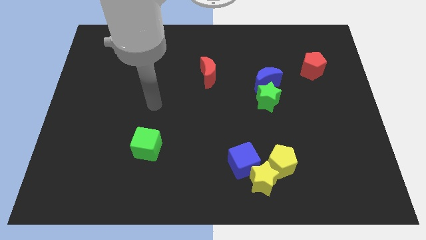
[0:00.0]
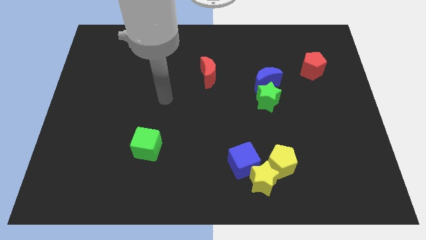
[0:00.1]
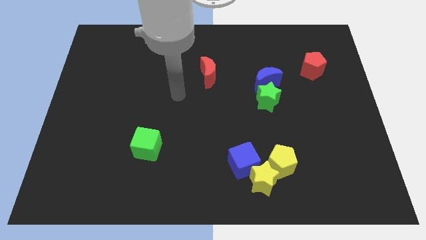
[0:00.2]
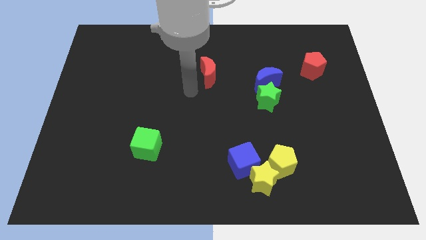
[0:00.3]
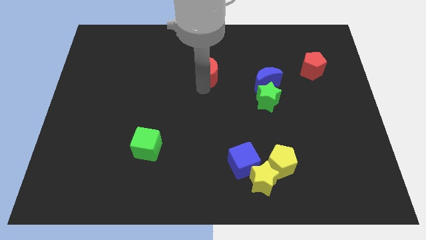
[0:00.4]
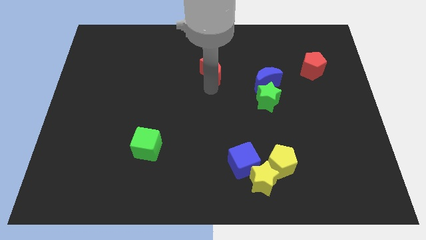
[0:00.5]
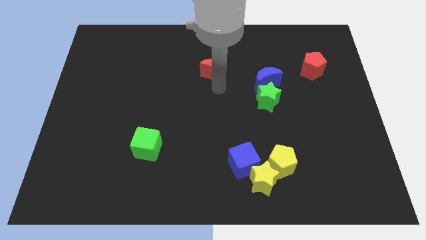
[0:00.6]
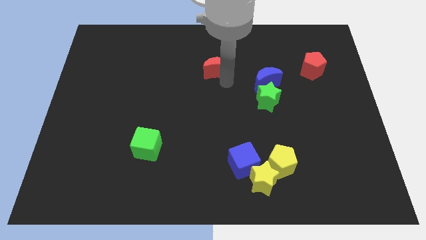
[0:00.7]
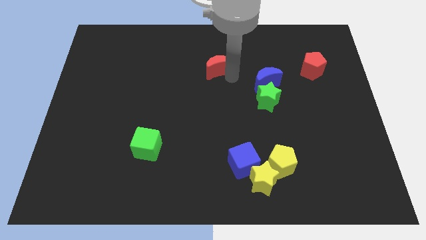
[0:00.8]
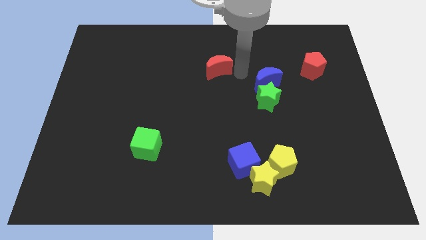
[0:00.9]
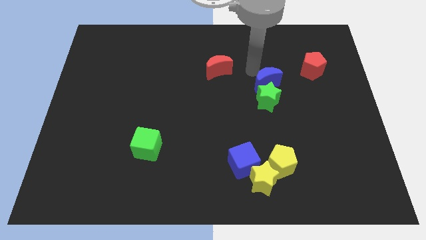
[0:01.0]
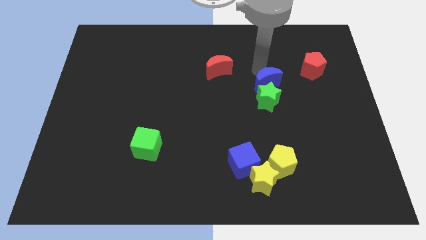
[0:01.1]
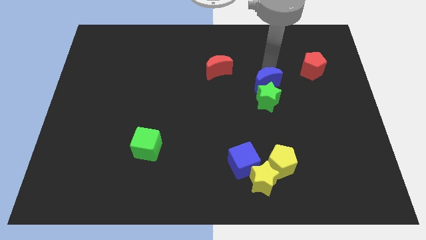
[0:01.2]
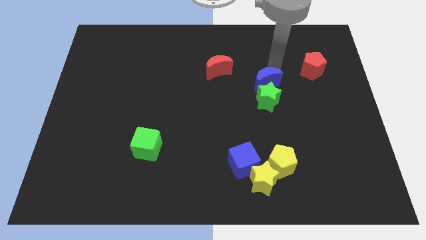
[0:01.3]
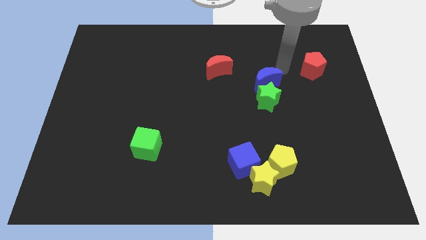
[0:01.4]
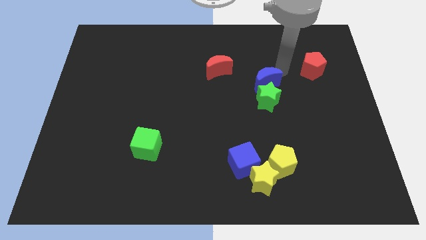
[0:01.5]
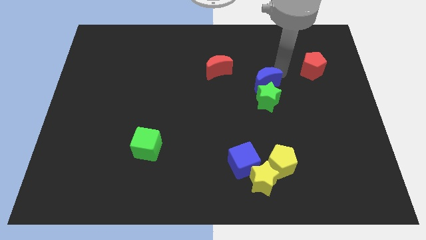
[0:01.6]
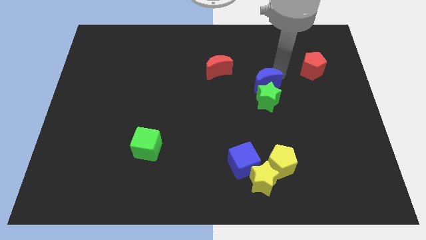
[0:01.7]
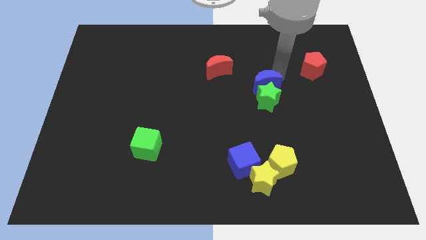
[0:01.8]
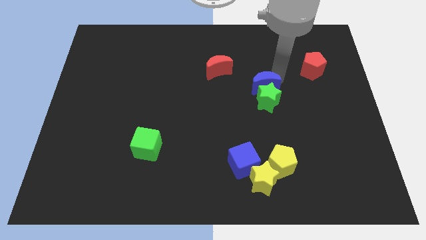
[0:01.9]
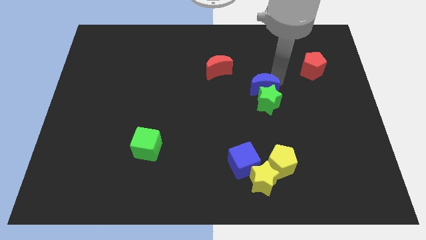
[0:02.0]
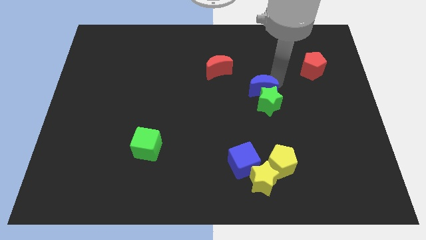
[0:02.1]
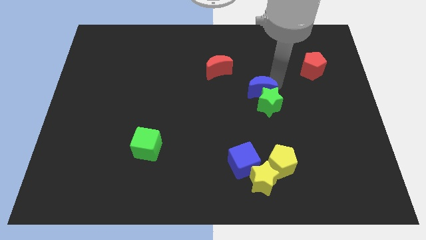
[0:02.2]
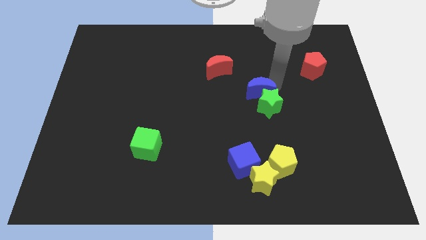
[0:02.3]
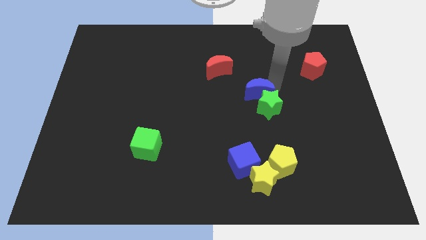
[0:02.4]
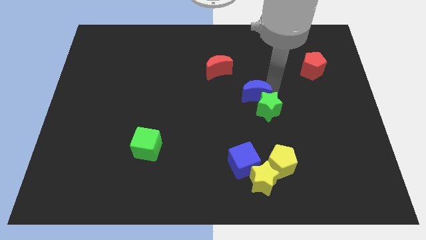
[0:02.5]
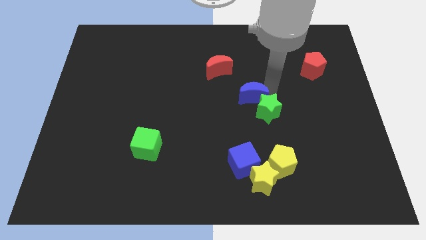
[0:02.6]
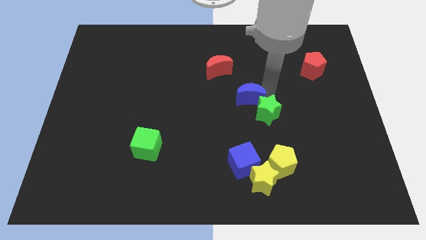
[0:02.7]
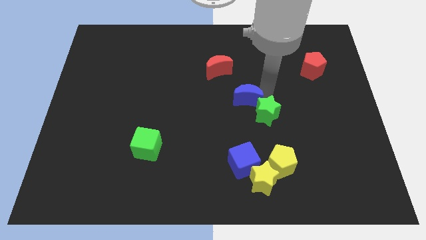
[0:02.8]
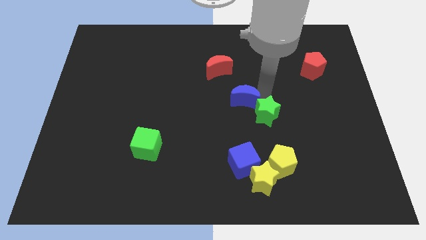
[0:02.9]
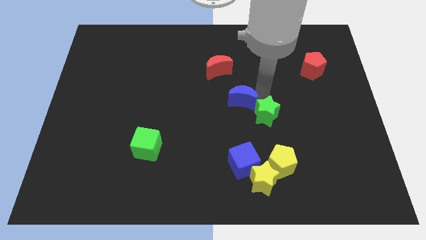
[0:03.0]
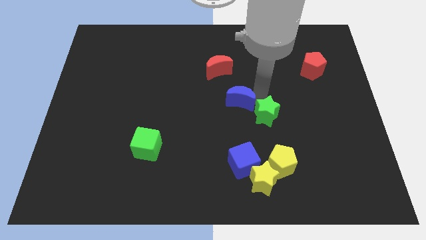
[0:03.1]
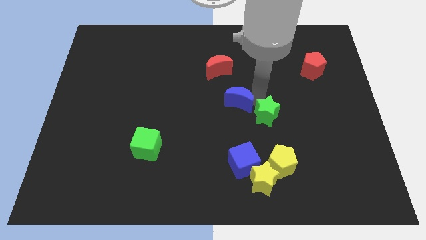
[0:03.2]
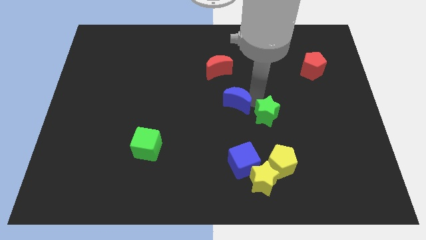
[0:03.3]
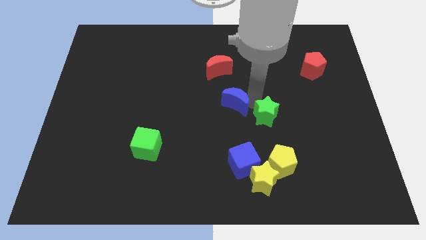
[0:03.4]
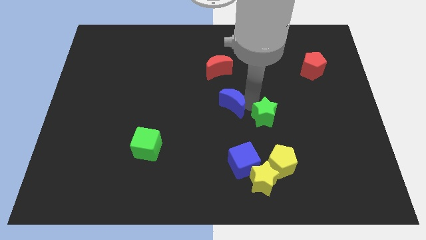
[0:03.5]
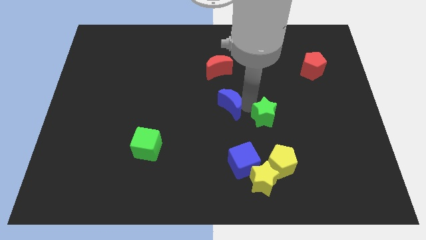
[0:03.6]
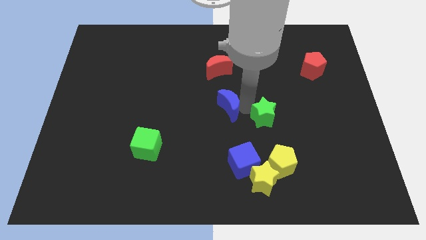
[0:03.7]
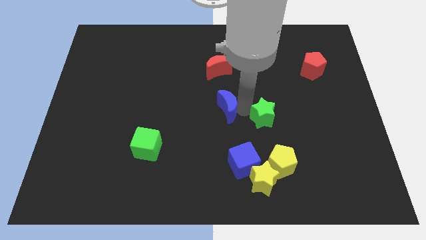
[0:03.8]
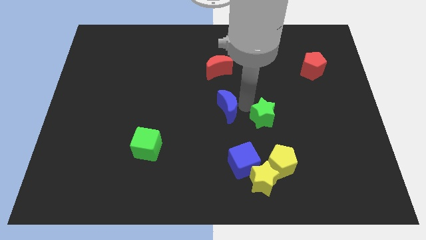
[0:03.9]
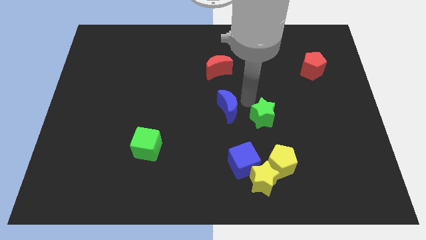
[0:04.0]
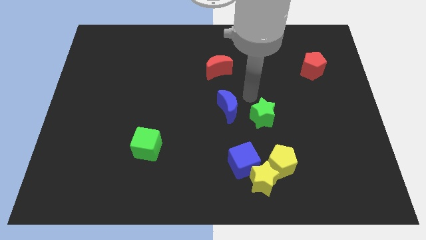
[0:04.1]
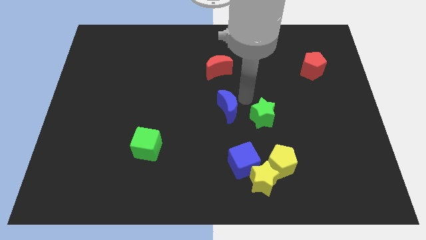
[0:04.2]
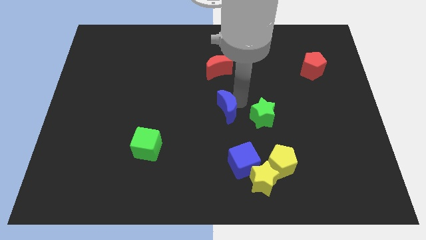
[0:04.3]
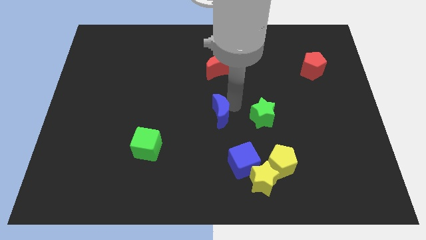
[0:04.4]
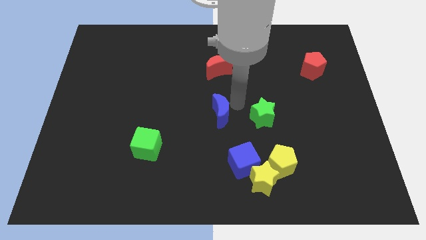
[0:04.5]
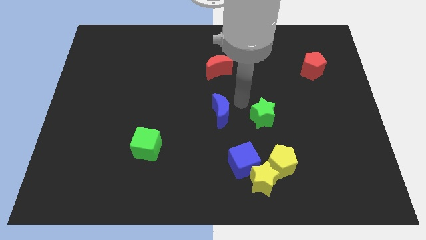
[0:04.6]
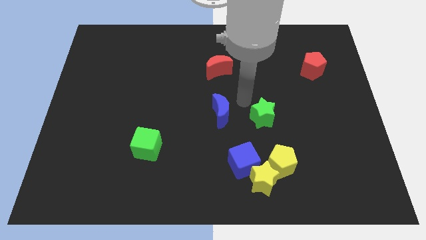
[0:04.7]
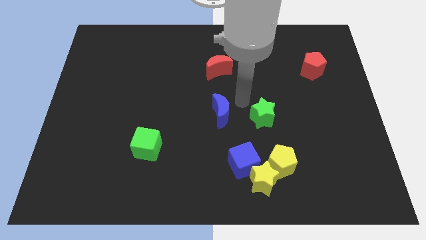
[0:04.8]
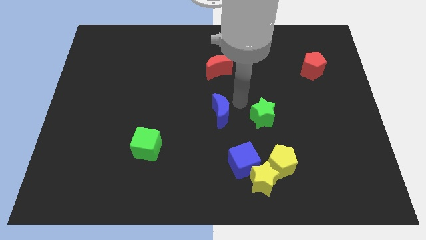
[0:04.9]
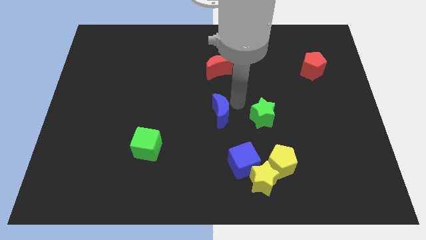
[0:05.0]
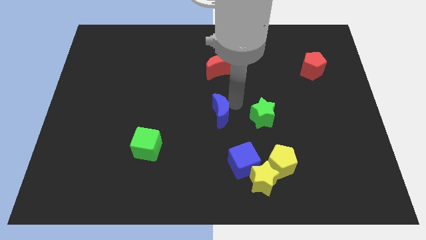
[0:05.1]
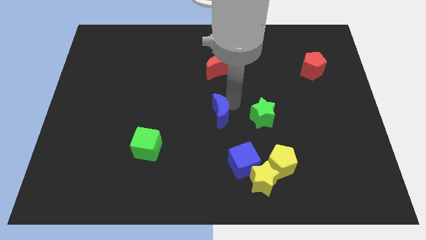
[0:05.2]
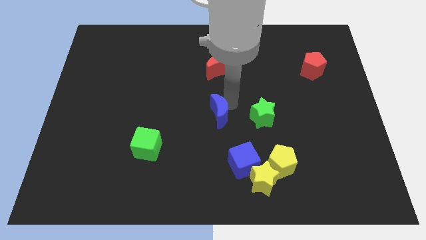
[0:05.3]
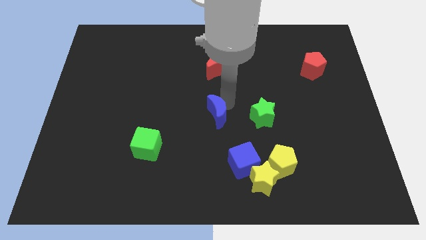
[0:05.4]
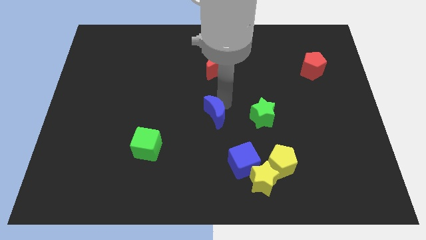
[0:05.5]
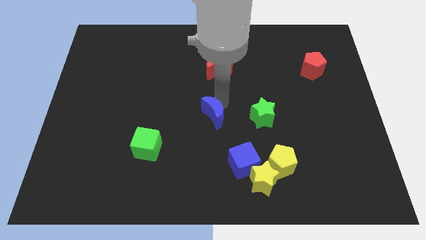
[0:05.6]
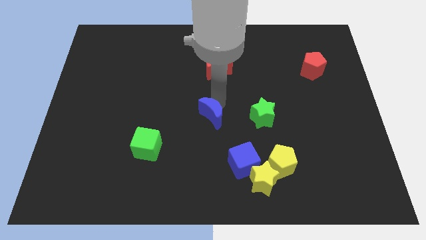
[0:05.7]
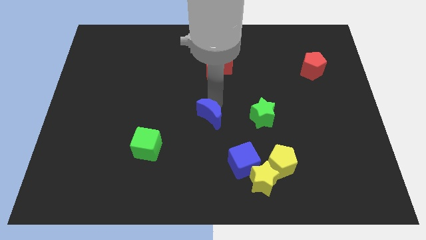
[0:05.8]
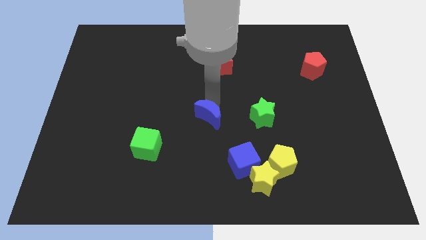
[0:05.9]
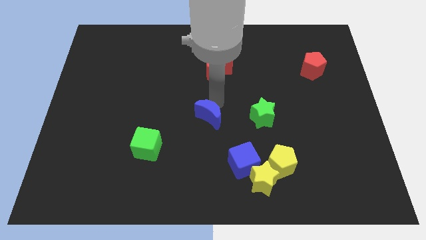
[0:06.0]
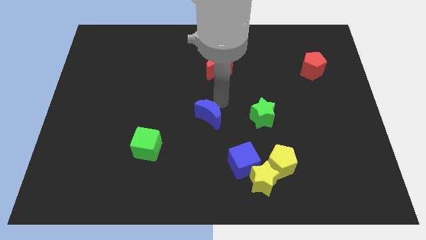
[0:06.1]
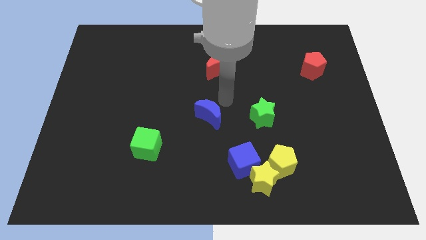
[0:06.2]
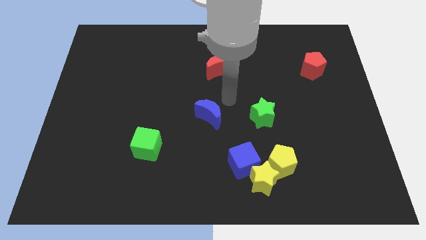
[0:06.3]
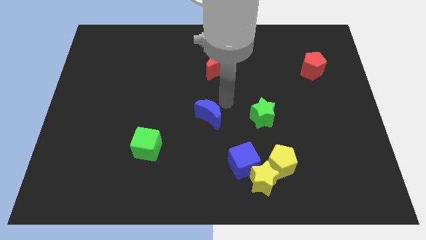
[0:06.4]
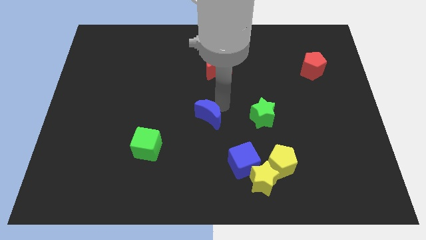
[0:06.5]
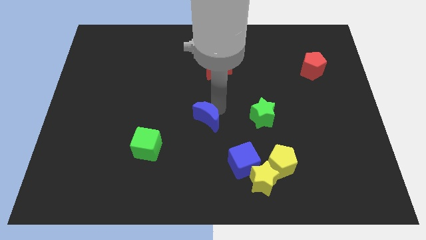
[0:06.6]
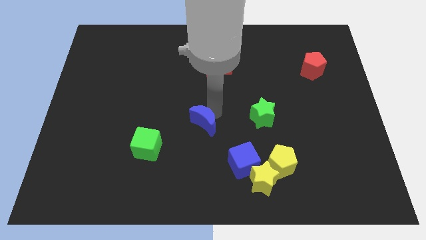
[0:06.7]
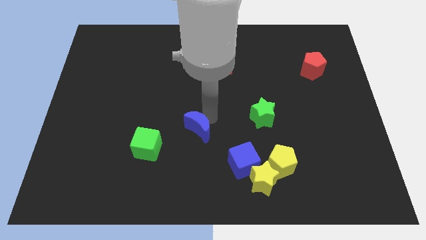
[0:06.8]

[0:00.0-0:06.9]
move the blue moon down and left

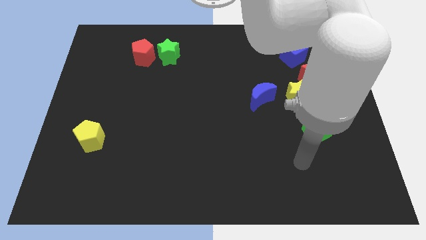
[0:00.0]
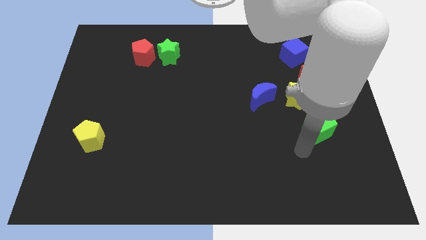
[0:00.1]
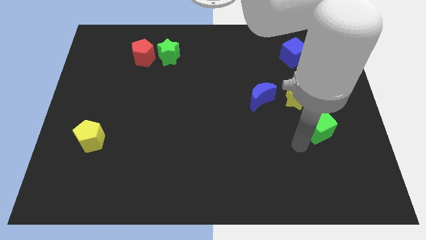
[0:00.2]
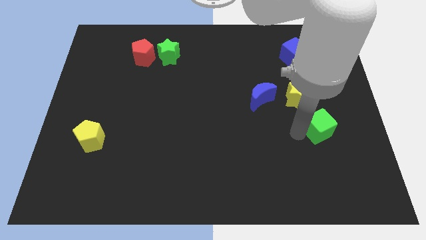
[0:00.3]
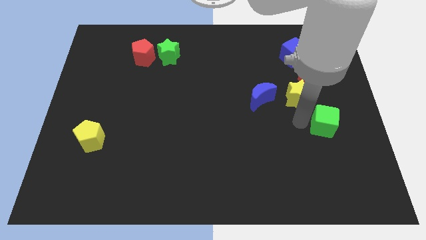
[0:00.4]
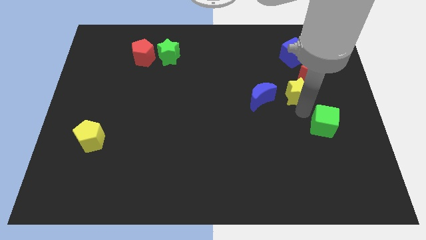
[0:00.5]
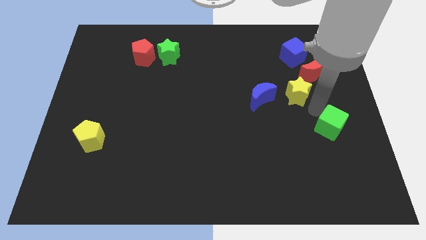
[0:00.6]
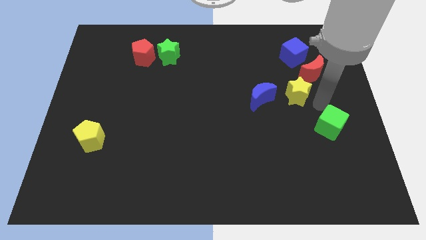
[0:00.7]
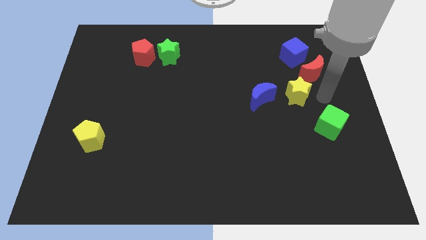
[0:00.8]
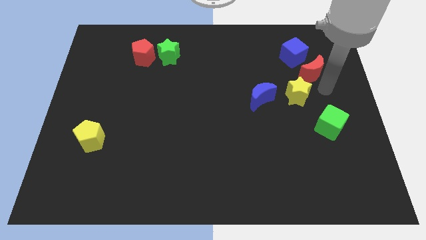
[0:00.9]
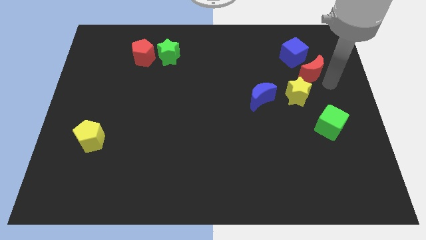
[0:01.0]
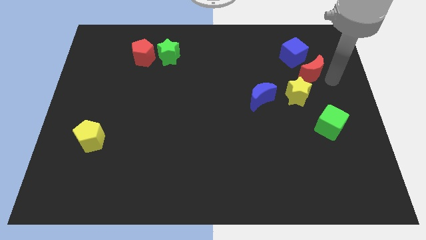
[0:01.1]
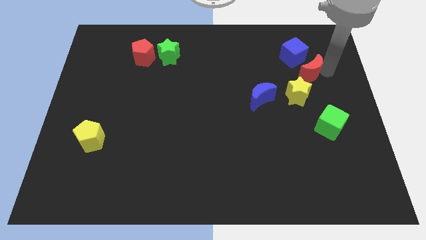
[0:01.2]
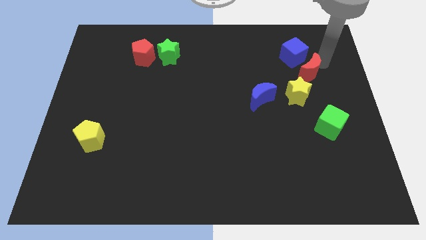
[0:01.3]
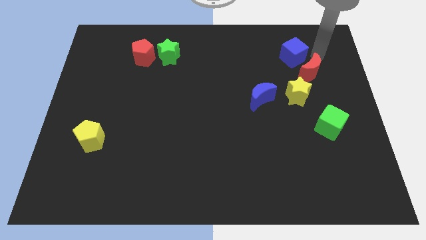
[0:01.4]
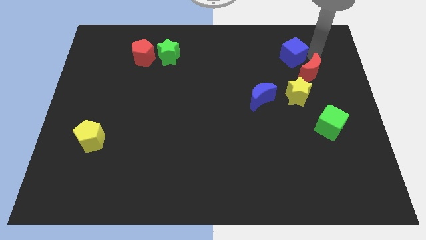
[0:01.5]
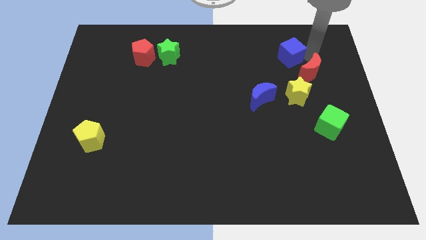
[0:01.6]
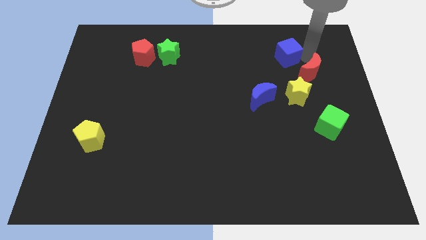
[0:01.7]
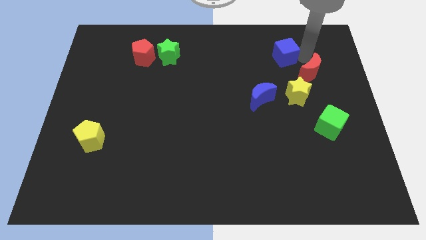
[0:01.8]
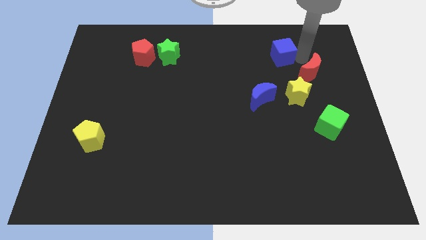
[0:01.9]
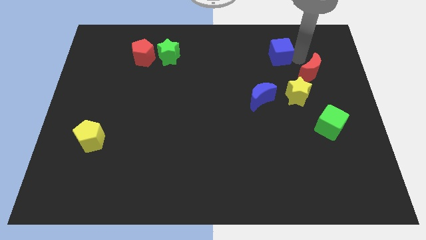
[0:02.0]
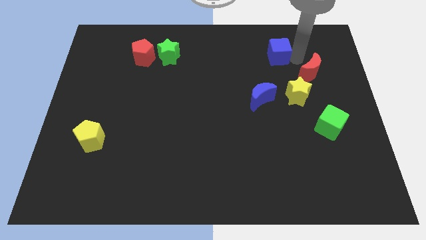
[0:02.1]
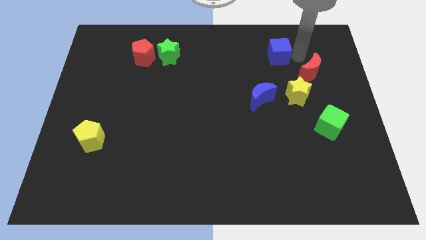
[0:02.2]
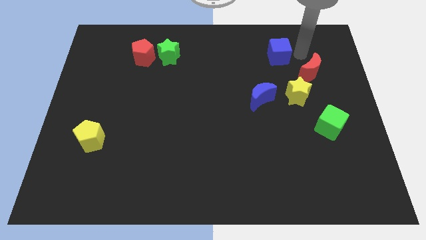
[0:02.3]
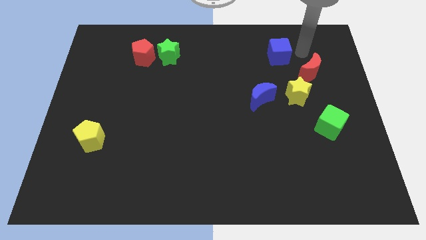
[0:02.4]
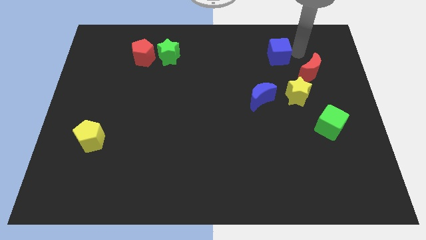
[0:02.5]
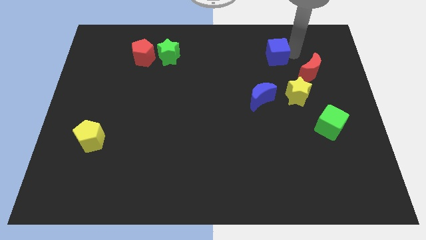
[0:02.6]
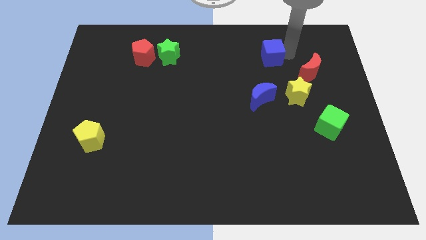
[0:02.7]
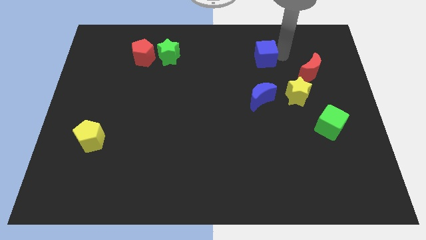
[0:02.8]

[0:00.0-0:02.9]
slide the blue cube a bit left
